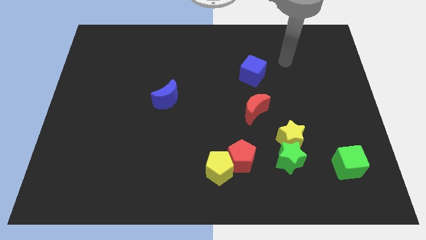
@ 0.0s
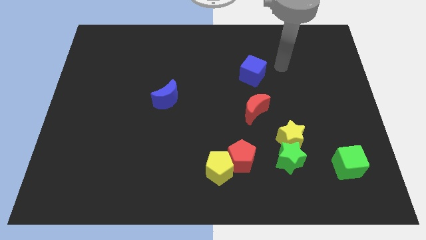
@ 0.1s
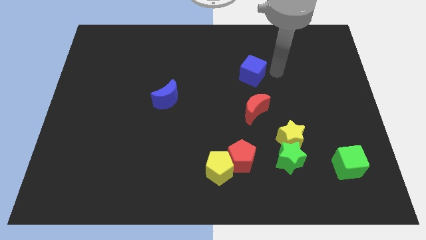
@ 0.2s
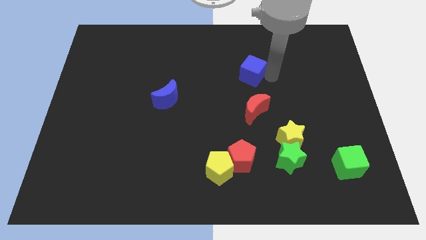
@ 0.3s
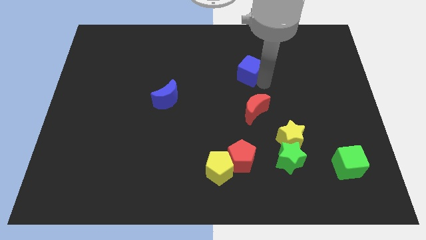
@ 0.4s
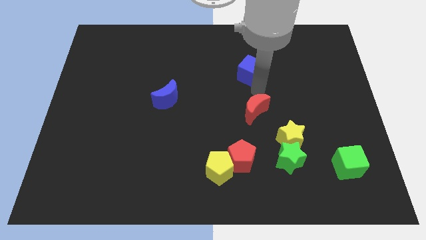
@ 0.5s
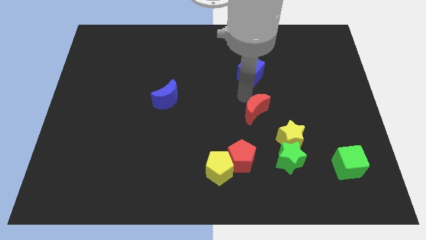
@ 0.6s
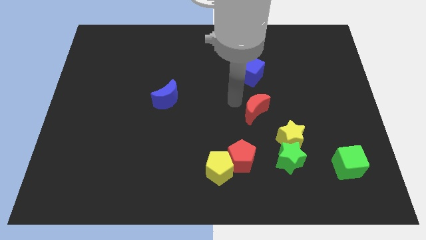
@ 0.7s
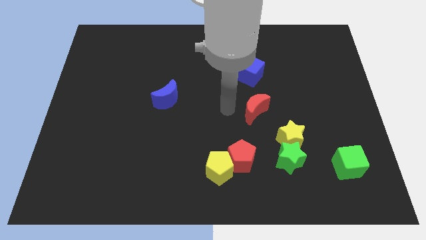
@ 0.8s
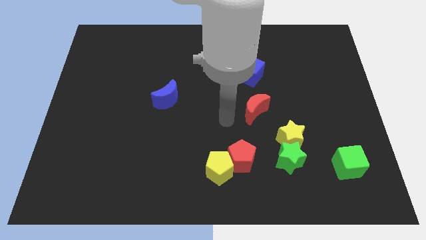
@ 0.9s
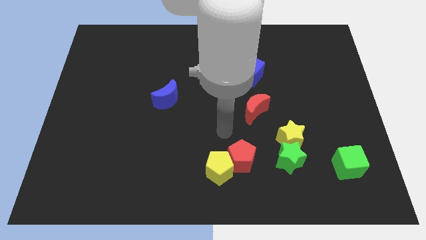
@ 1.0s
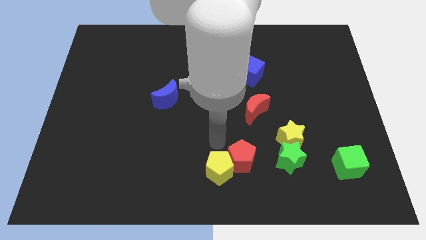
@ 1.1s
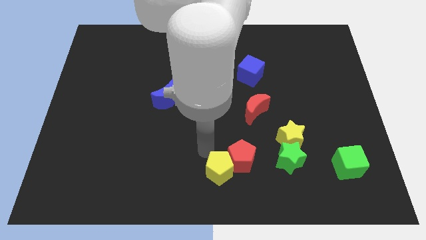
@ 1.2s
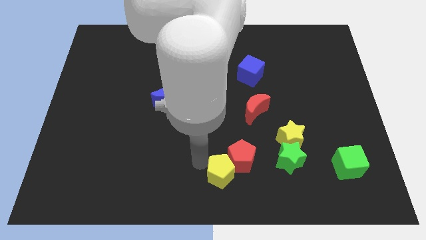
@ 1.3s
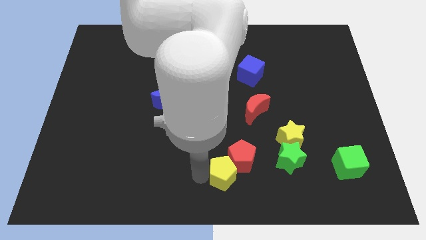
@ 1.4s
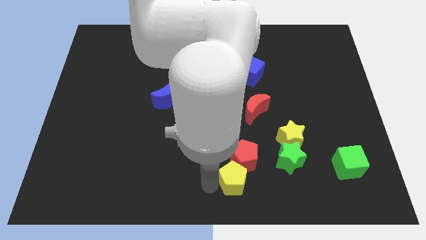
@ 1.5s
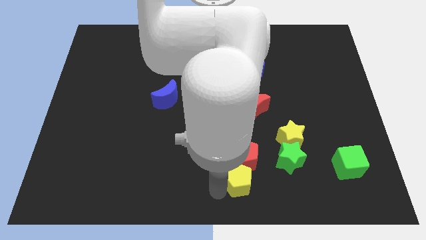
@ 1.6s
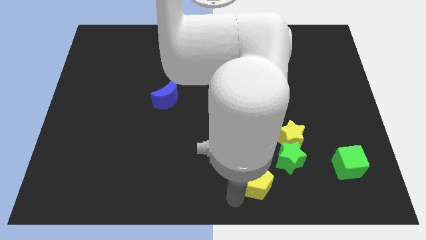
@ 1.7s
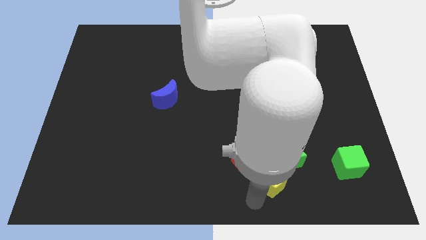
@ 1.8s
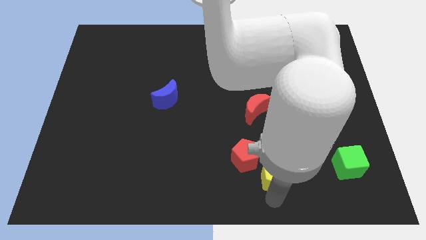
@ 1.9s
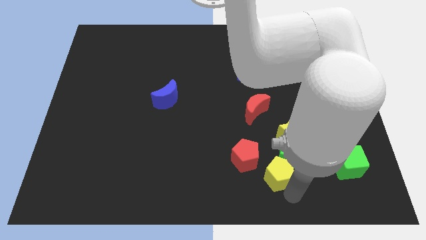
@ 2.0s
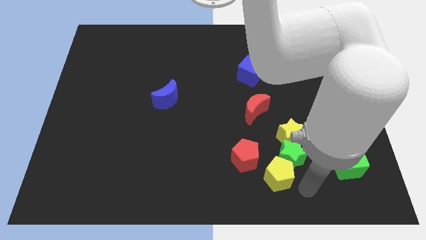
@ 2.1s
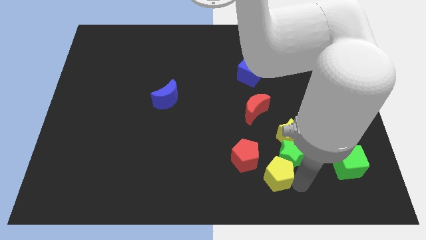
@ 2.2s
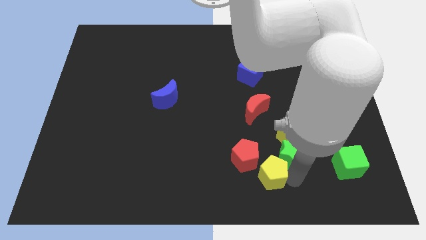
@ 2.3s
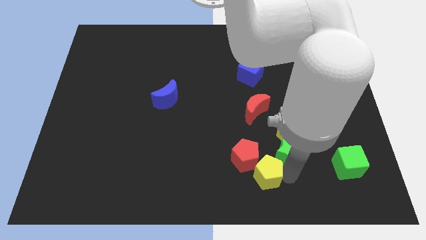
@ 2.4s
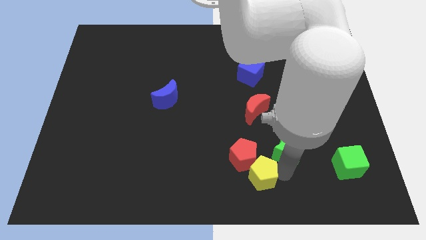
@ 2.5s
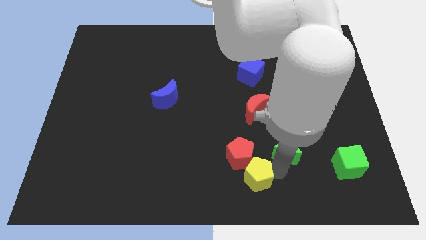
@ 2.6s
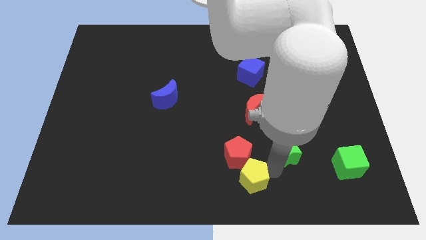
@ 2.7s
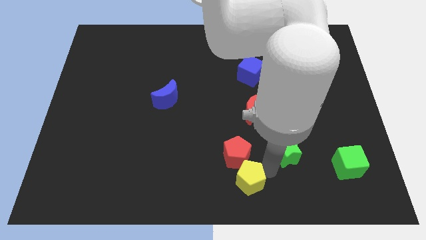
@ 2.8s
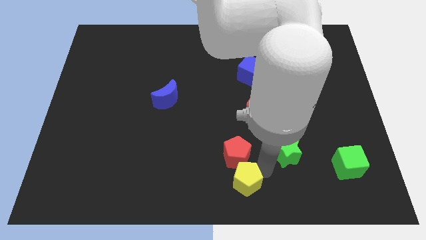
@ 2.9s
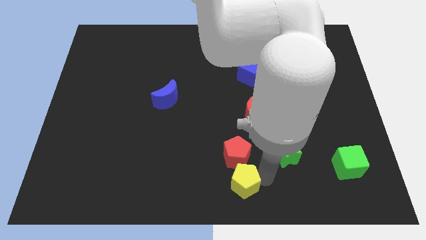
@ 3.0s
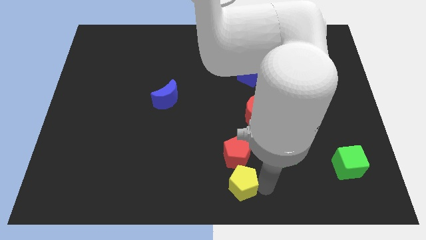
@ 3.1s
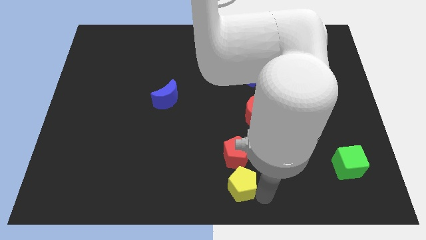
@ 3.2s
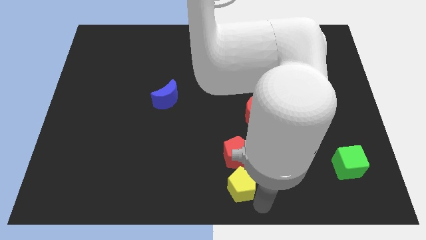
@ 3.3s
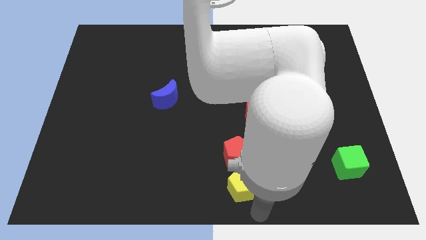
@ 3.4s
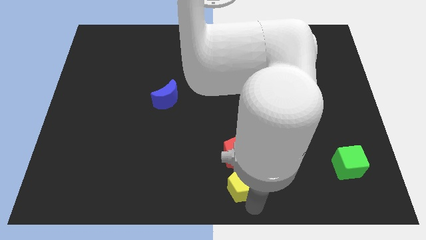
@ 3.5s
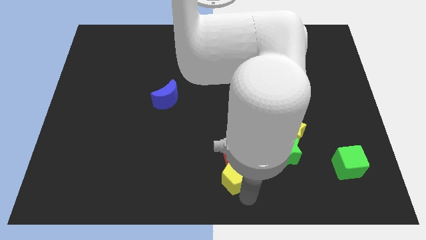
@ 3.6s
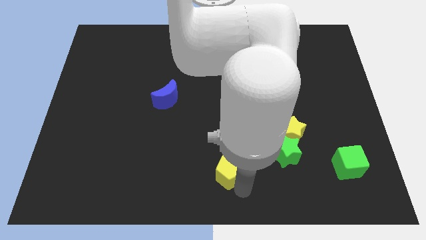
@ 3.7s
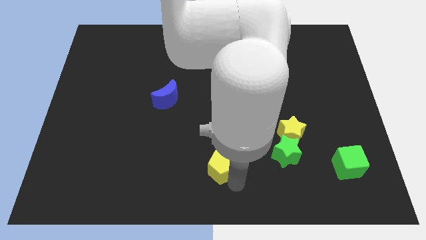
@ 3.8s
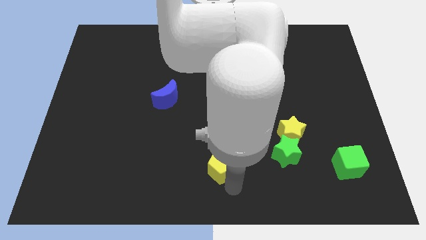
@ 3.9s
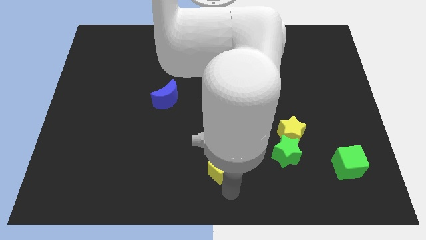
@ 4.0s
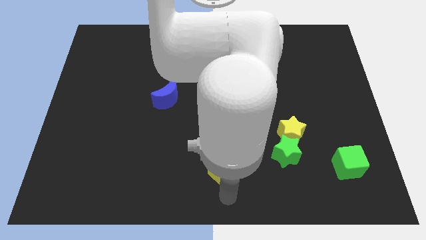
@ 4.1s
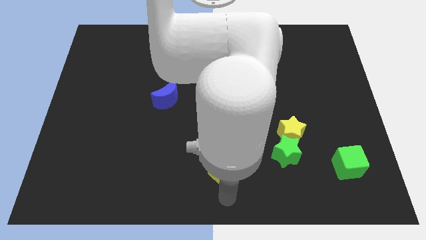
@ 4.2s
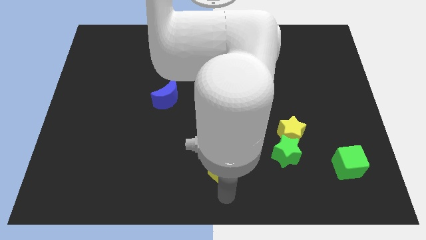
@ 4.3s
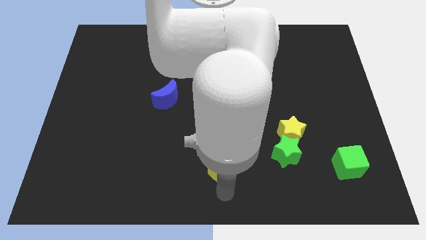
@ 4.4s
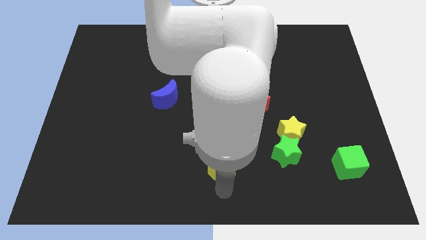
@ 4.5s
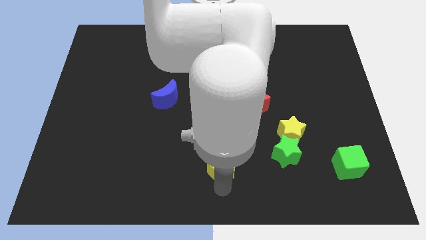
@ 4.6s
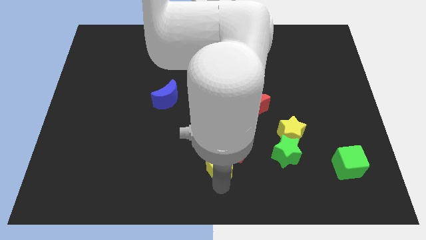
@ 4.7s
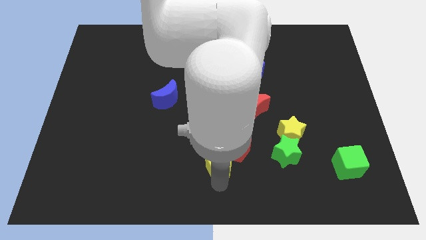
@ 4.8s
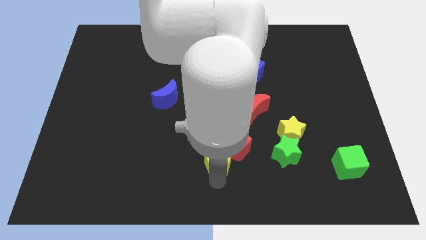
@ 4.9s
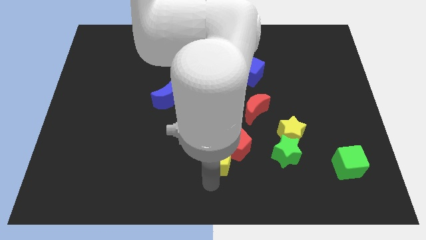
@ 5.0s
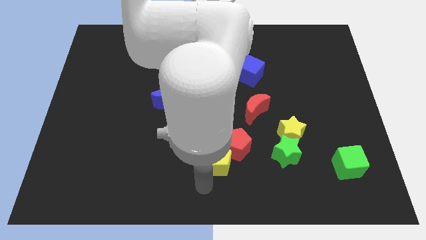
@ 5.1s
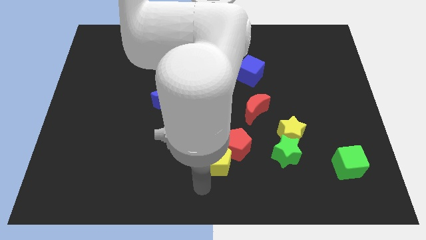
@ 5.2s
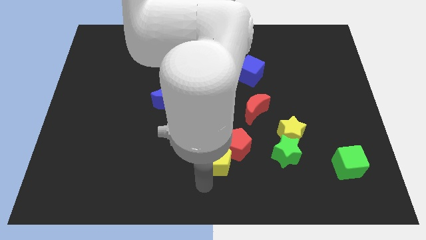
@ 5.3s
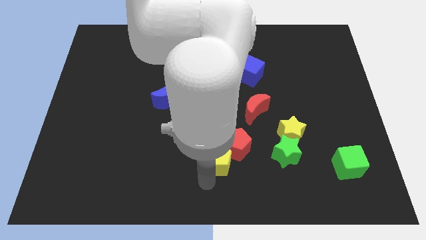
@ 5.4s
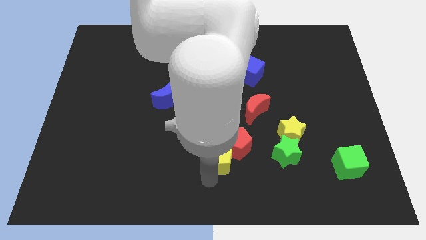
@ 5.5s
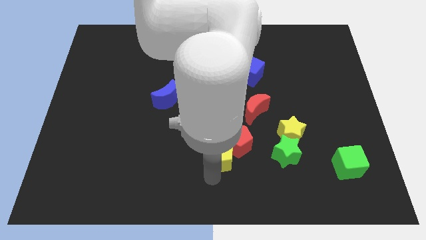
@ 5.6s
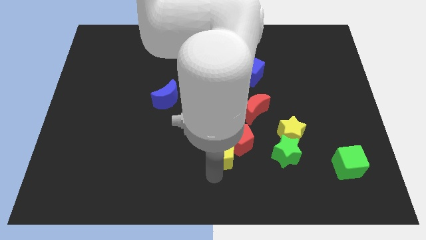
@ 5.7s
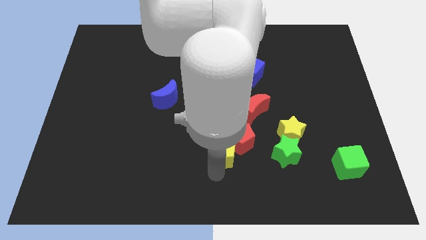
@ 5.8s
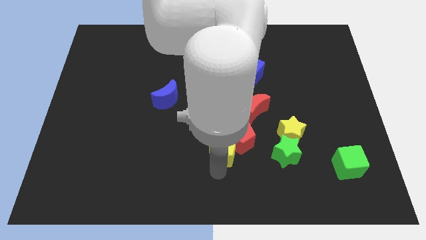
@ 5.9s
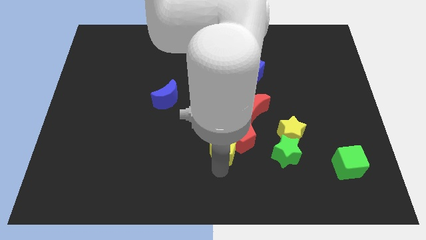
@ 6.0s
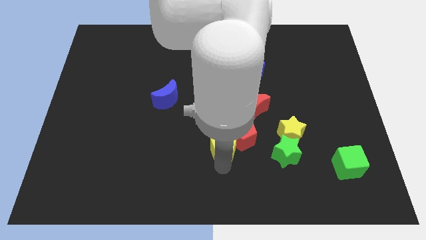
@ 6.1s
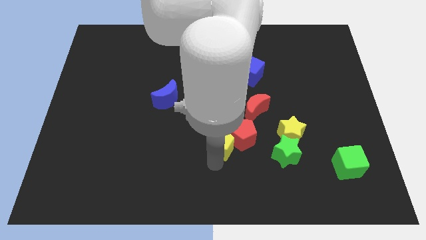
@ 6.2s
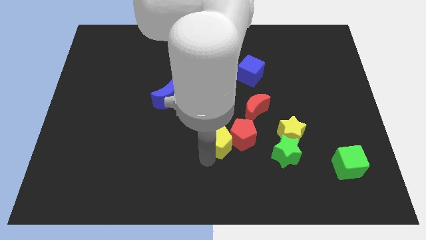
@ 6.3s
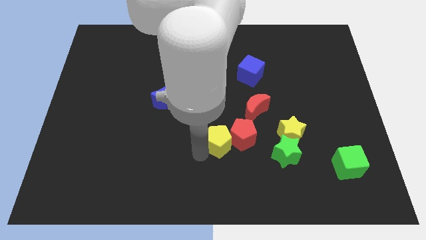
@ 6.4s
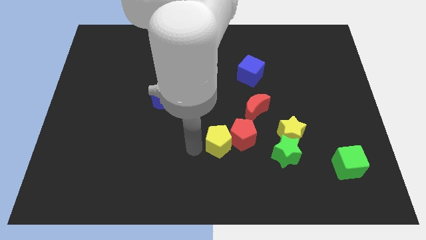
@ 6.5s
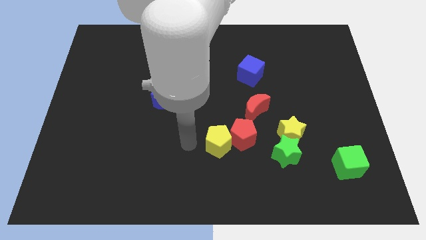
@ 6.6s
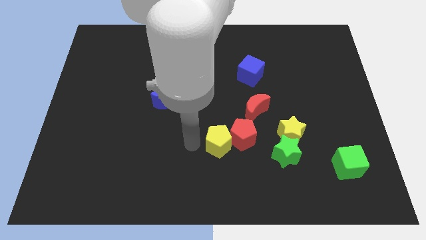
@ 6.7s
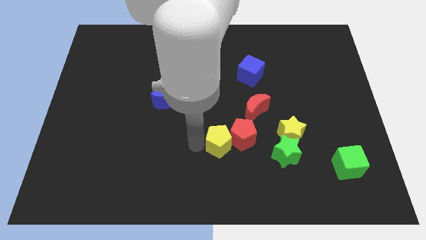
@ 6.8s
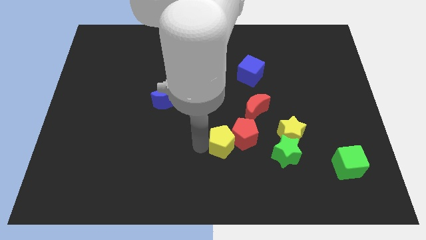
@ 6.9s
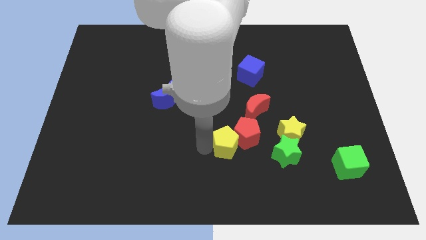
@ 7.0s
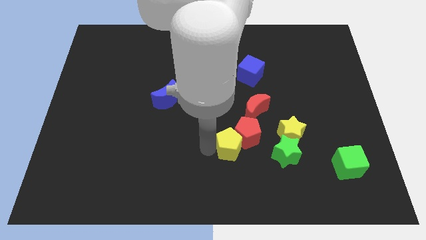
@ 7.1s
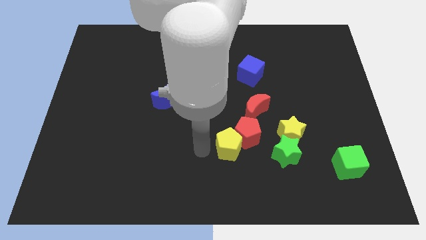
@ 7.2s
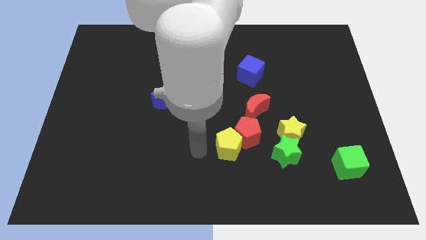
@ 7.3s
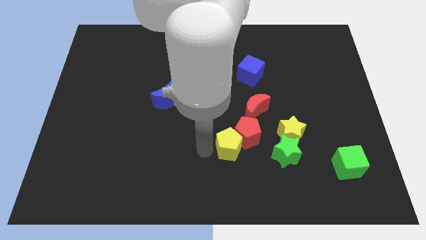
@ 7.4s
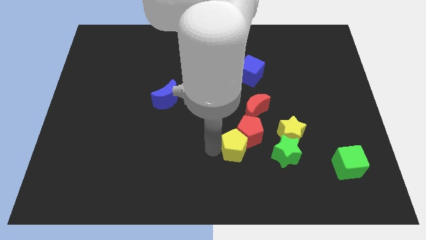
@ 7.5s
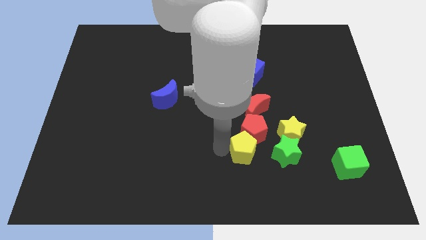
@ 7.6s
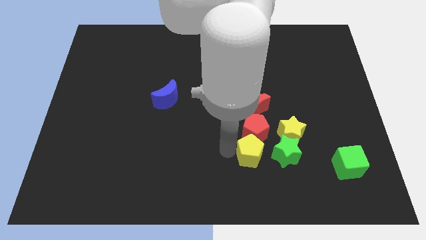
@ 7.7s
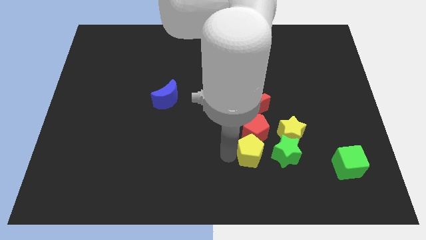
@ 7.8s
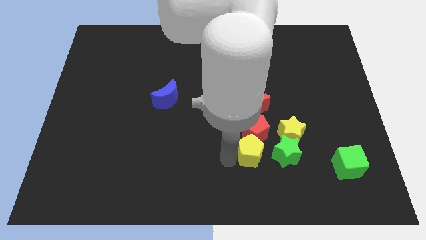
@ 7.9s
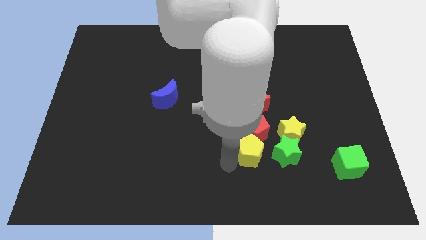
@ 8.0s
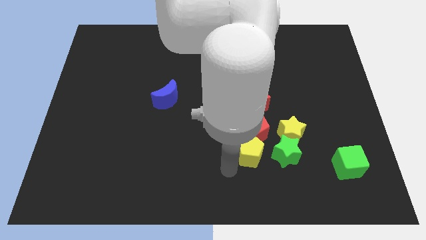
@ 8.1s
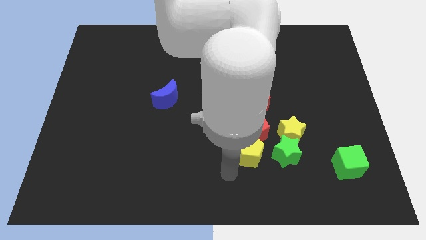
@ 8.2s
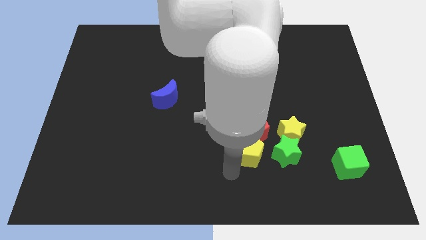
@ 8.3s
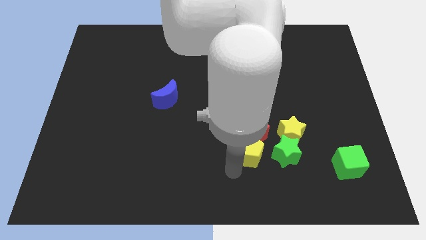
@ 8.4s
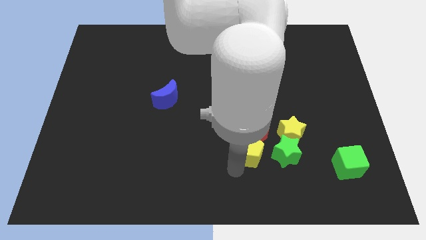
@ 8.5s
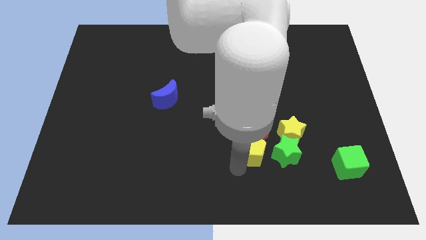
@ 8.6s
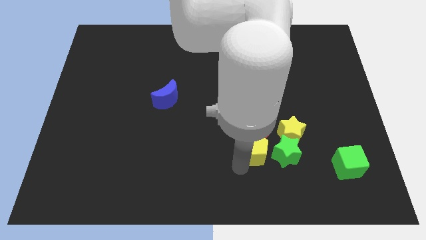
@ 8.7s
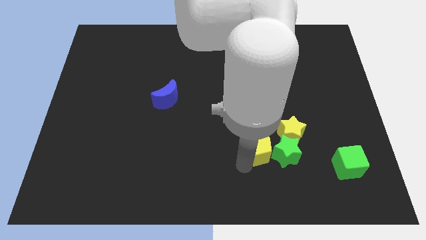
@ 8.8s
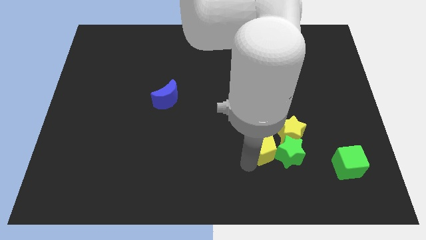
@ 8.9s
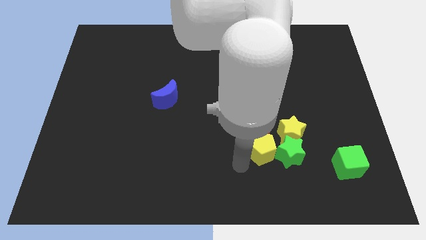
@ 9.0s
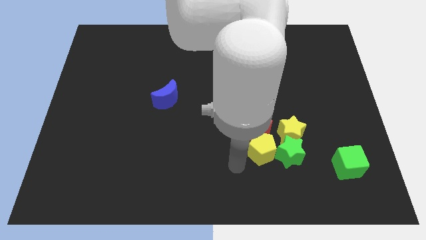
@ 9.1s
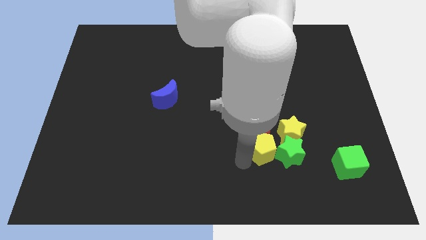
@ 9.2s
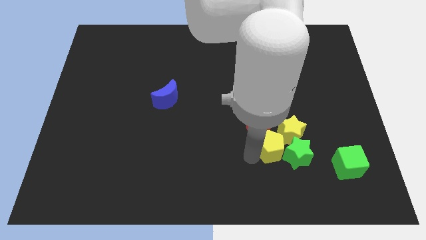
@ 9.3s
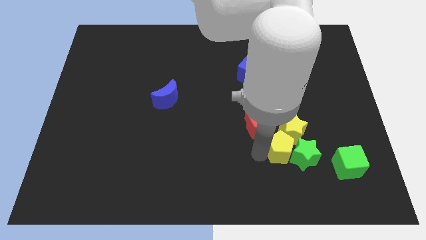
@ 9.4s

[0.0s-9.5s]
put the yellow pentagon next to the yellow star
